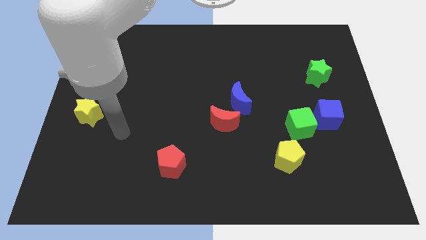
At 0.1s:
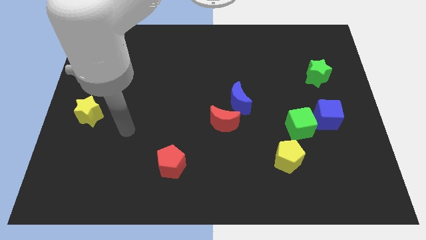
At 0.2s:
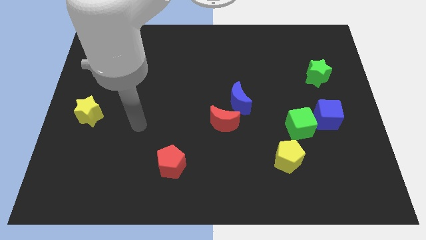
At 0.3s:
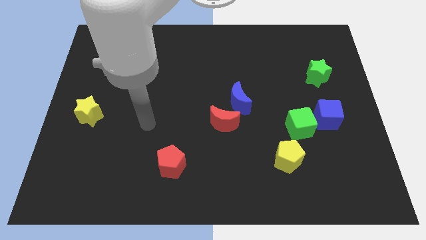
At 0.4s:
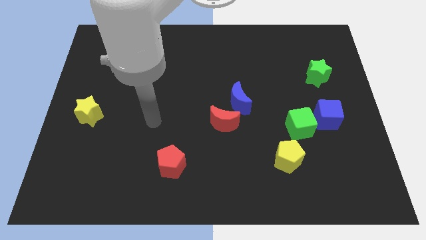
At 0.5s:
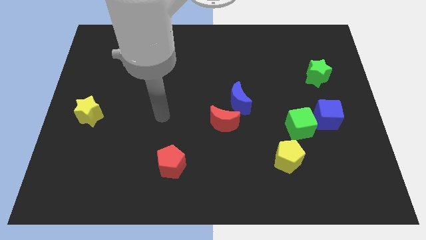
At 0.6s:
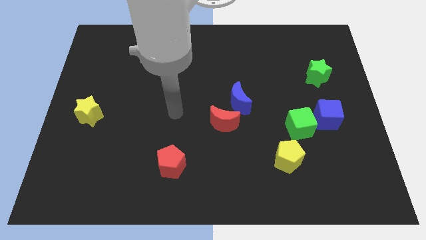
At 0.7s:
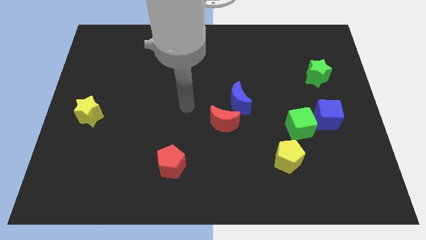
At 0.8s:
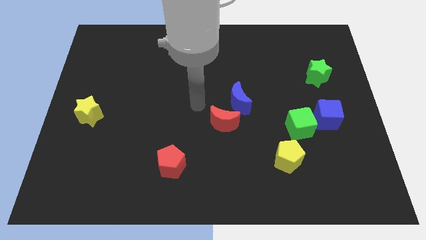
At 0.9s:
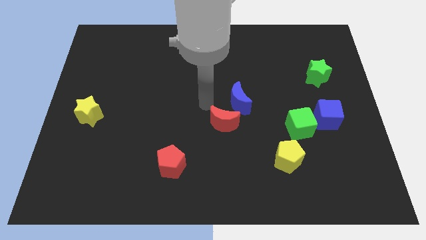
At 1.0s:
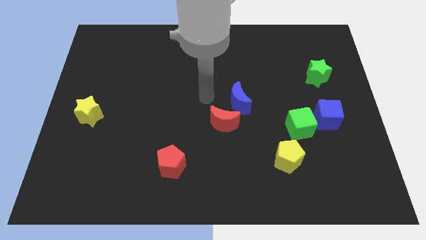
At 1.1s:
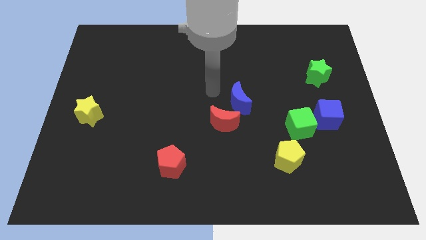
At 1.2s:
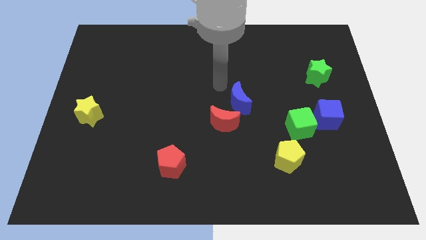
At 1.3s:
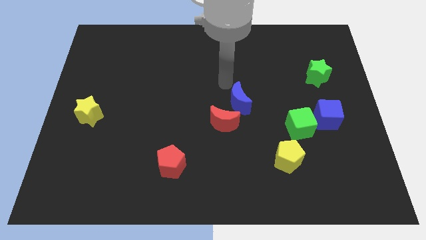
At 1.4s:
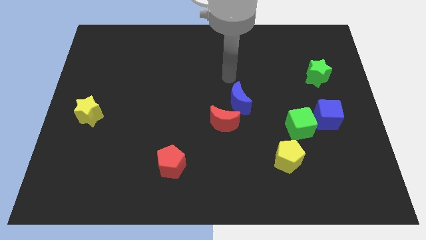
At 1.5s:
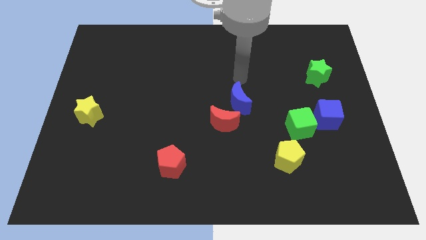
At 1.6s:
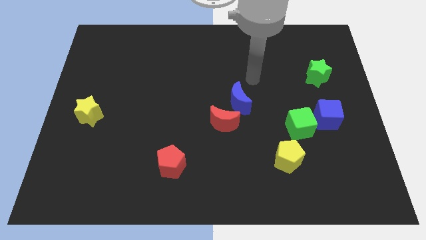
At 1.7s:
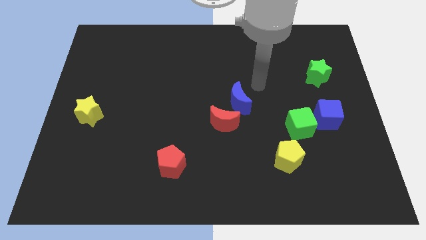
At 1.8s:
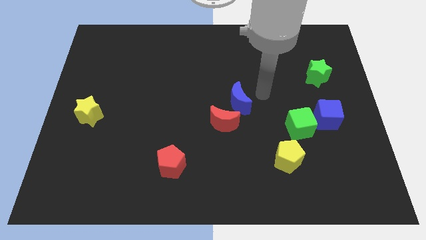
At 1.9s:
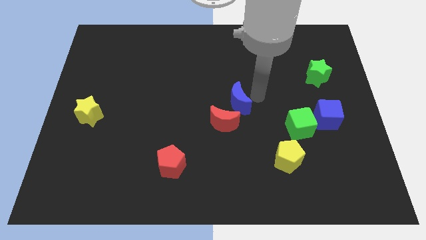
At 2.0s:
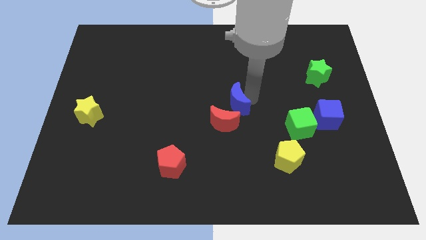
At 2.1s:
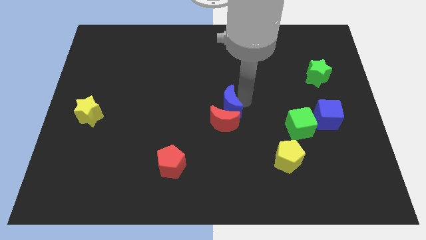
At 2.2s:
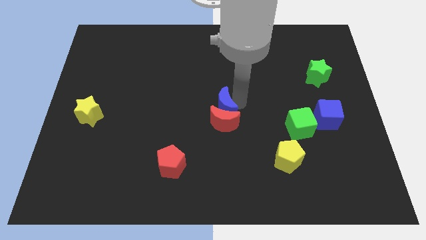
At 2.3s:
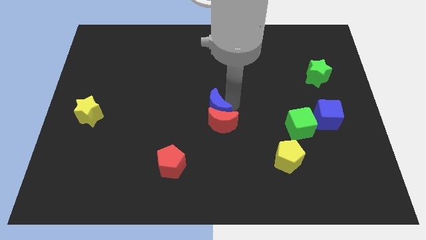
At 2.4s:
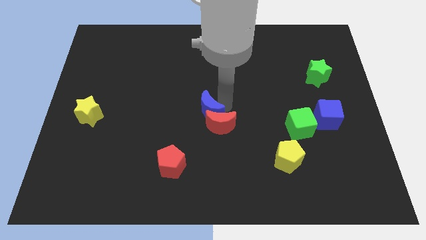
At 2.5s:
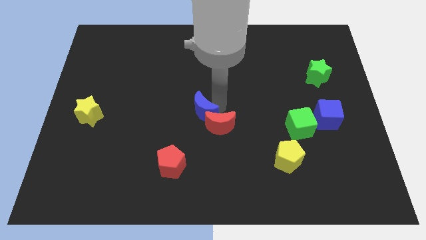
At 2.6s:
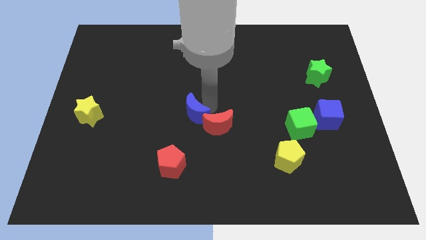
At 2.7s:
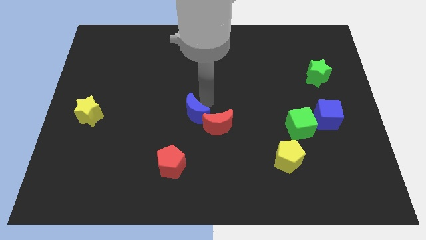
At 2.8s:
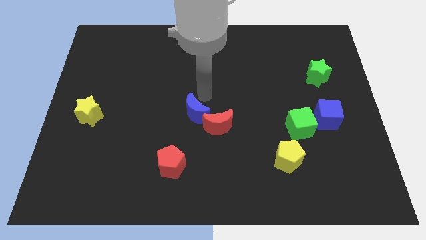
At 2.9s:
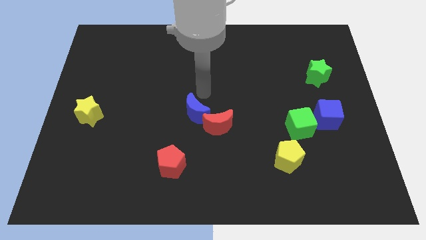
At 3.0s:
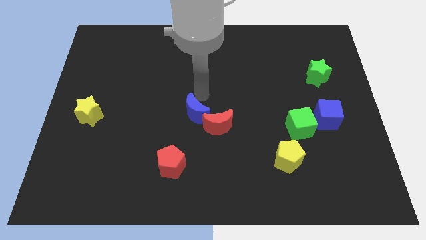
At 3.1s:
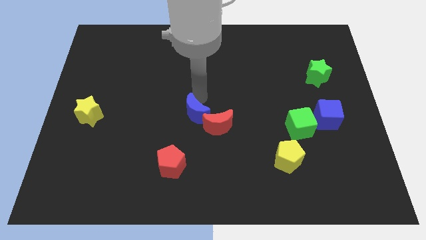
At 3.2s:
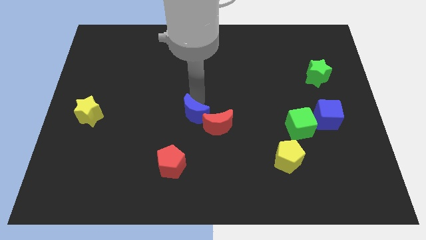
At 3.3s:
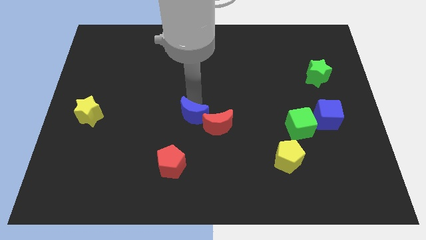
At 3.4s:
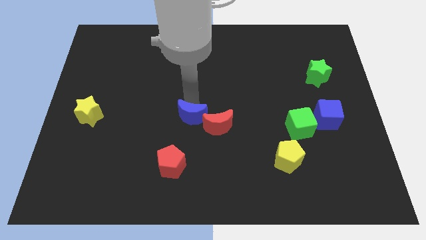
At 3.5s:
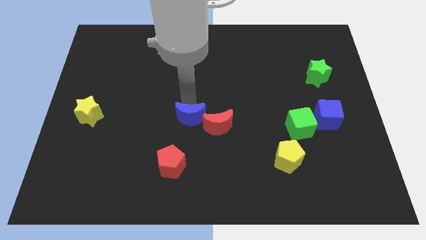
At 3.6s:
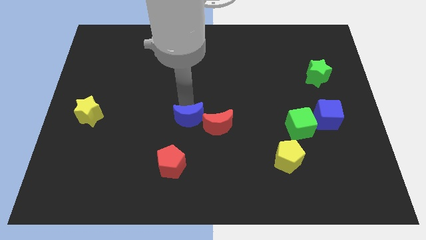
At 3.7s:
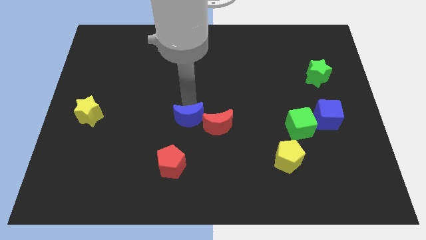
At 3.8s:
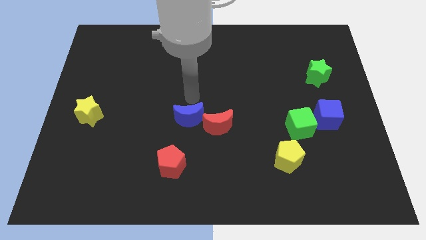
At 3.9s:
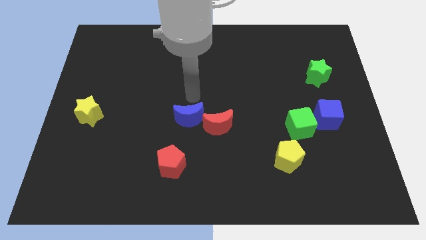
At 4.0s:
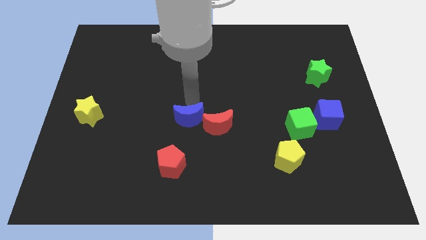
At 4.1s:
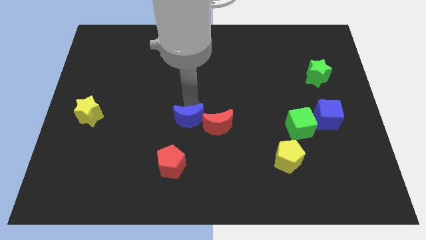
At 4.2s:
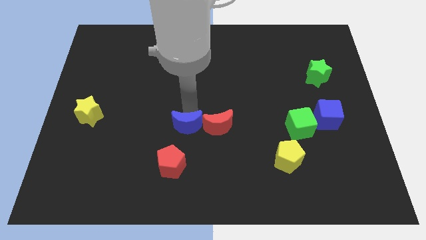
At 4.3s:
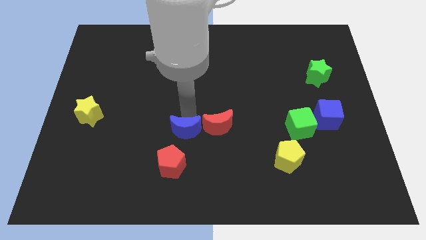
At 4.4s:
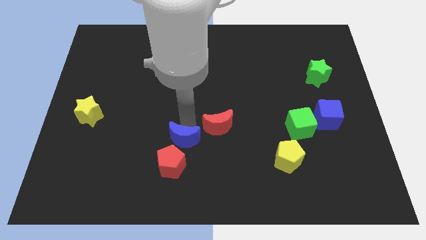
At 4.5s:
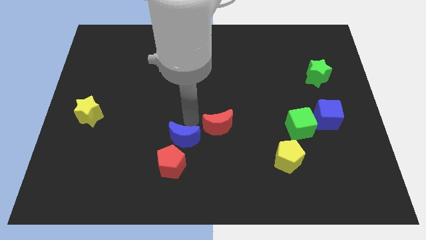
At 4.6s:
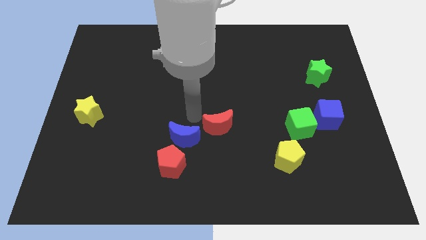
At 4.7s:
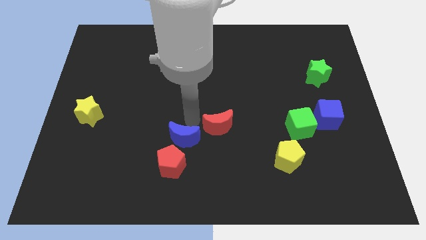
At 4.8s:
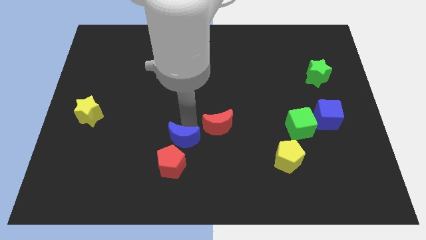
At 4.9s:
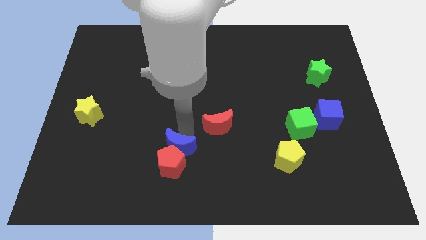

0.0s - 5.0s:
push the blue moon towards the red pentagon

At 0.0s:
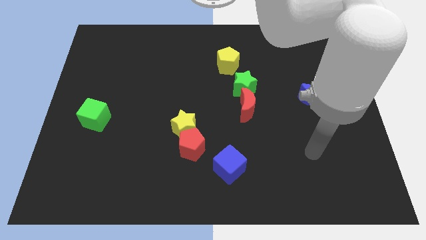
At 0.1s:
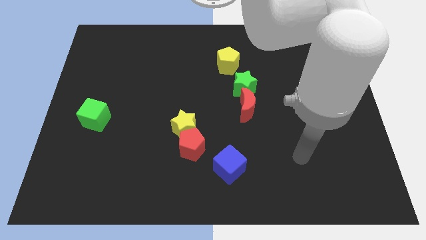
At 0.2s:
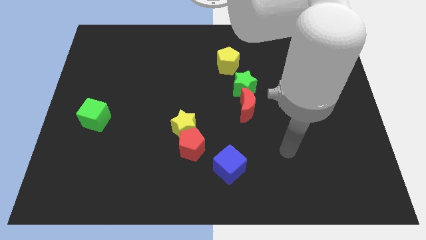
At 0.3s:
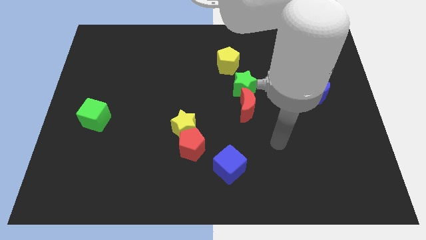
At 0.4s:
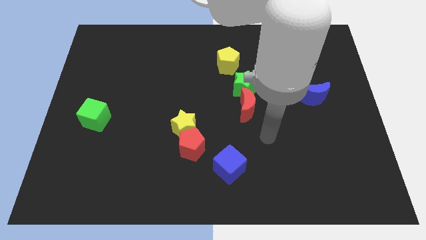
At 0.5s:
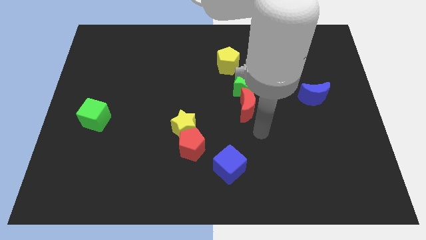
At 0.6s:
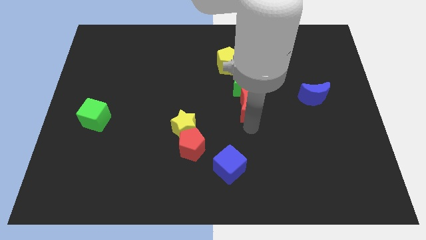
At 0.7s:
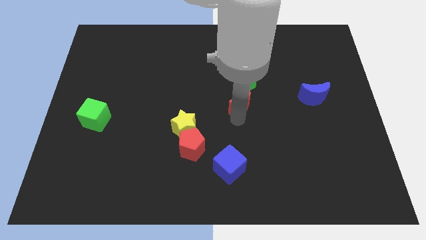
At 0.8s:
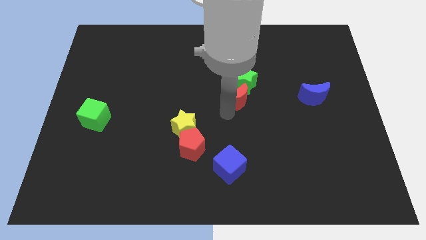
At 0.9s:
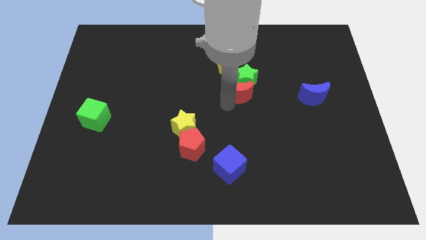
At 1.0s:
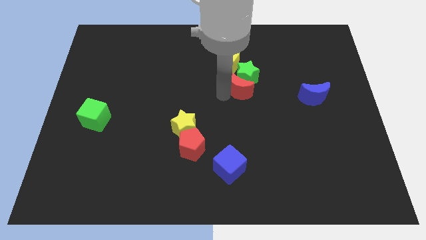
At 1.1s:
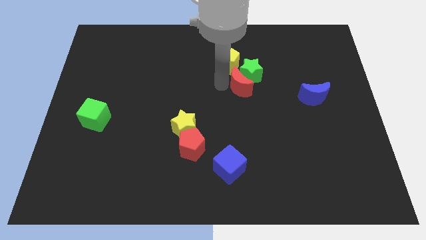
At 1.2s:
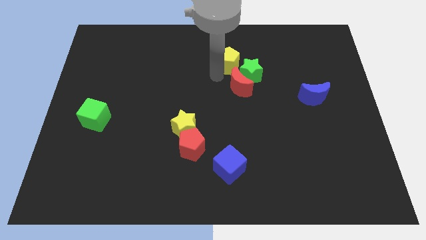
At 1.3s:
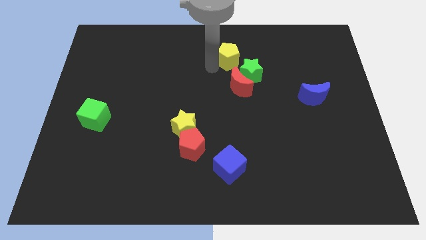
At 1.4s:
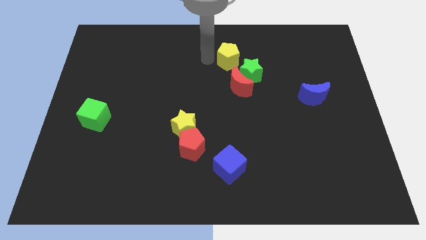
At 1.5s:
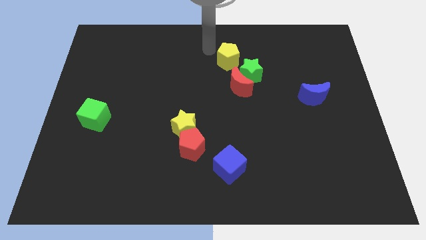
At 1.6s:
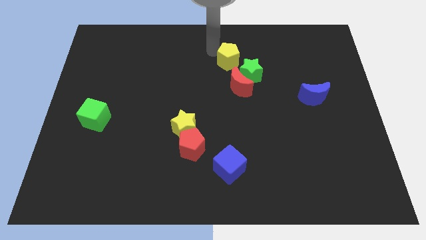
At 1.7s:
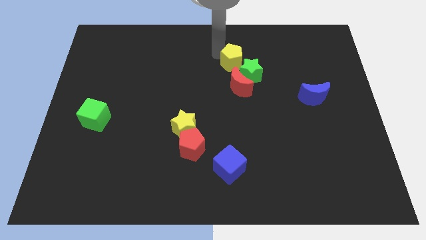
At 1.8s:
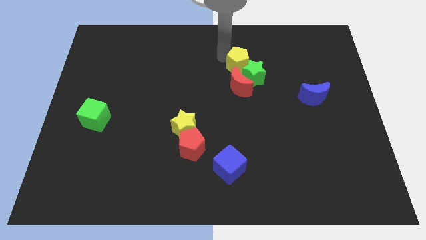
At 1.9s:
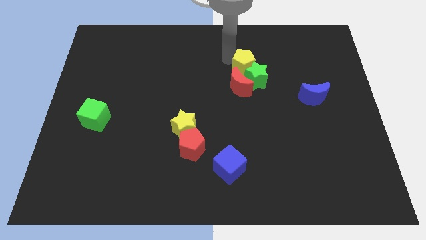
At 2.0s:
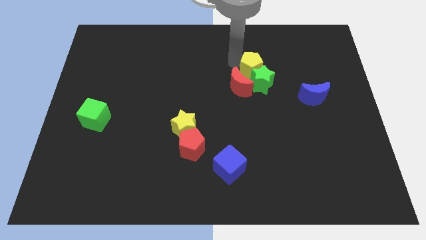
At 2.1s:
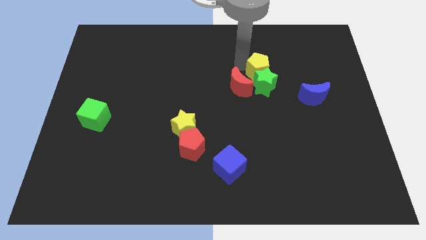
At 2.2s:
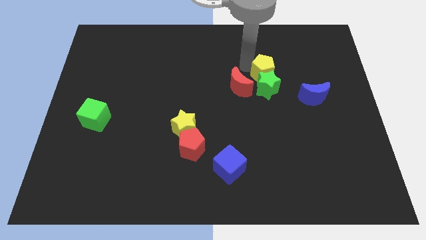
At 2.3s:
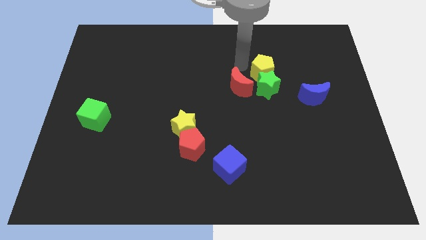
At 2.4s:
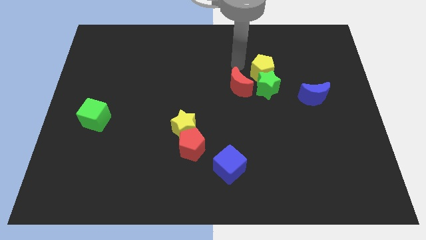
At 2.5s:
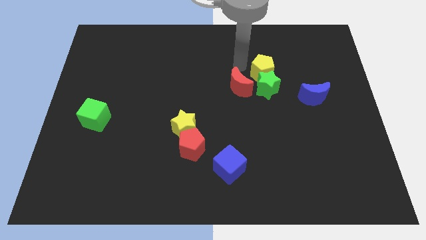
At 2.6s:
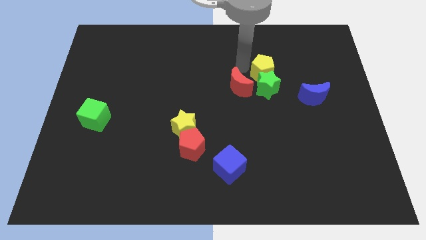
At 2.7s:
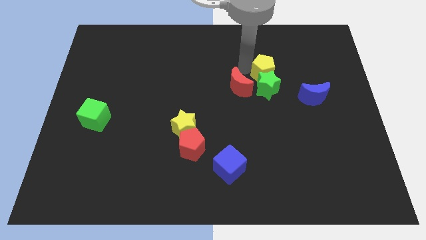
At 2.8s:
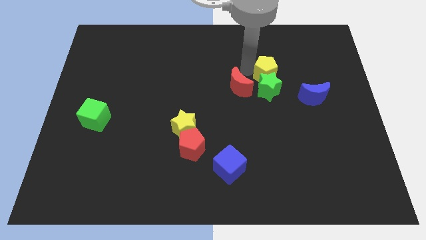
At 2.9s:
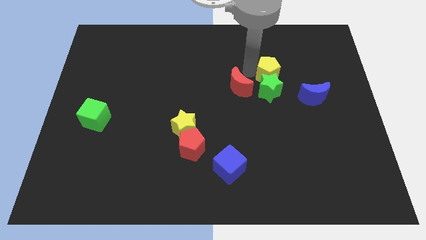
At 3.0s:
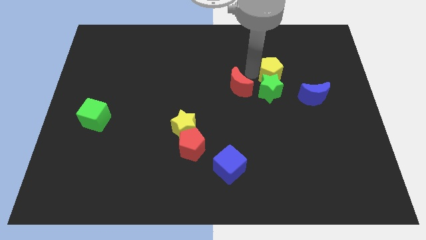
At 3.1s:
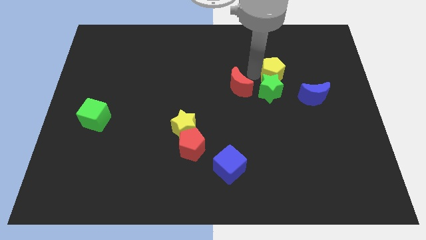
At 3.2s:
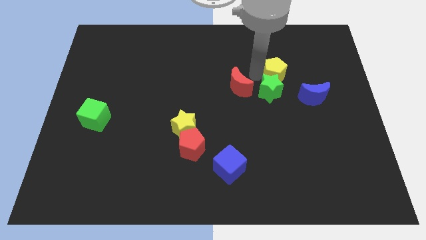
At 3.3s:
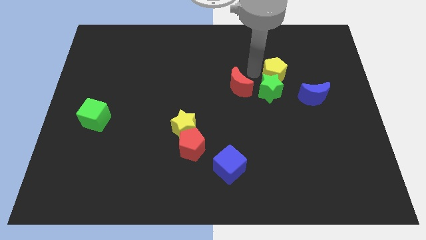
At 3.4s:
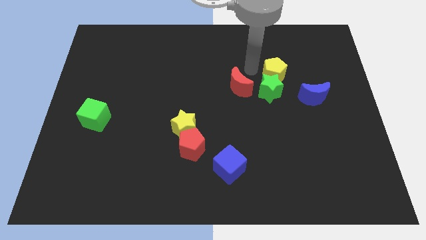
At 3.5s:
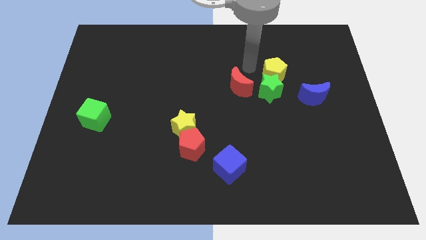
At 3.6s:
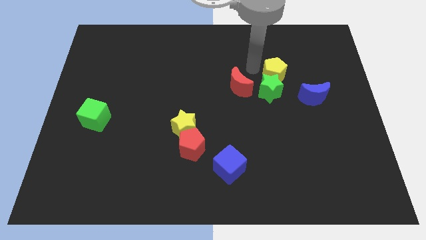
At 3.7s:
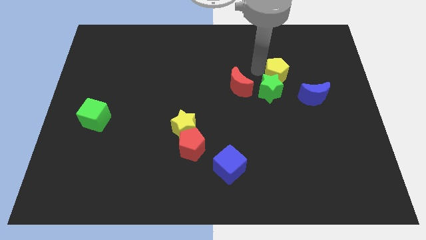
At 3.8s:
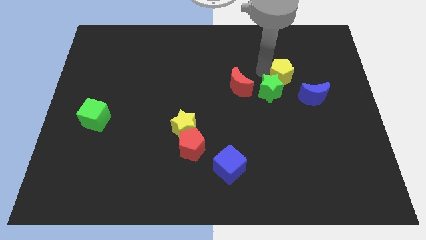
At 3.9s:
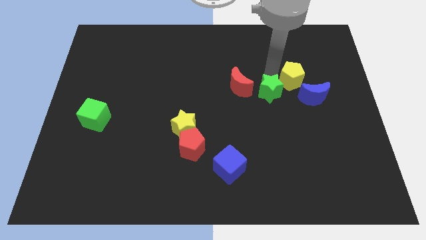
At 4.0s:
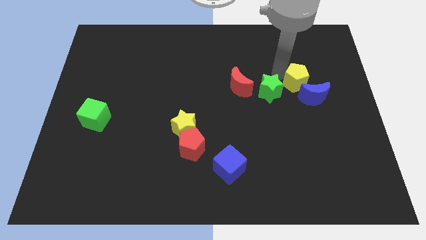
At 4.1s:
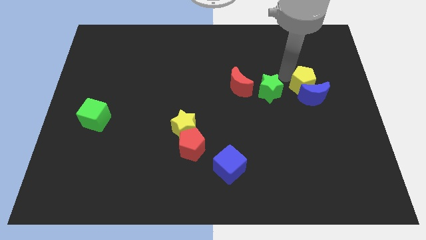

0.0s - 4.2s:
put the yellow pentagon towards the blue moon
